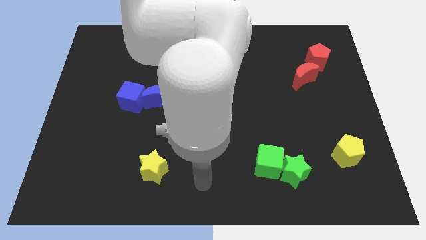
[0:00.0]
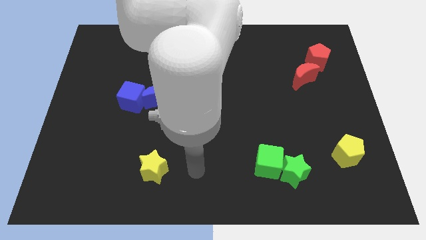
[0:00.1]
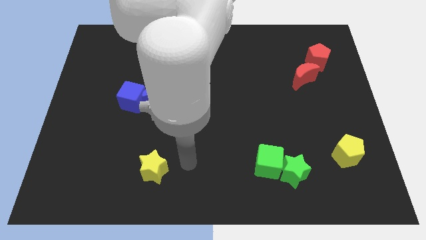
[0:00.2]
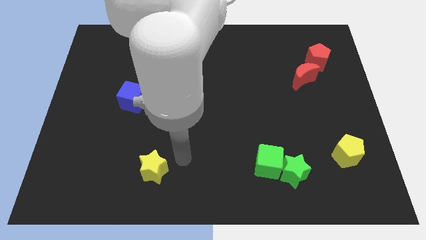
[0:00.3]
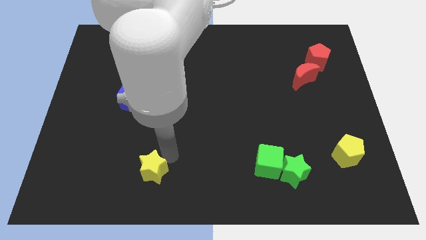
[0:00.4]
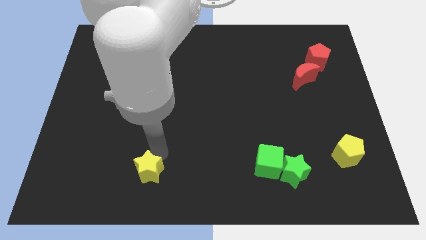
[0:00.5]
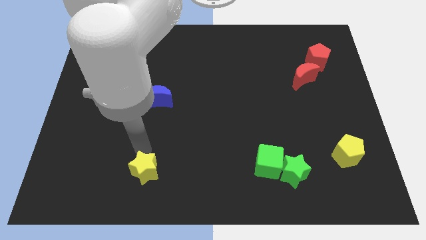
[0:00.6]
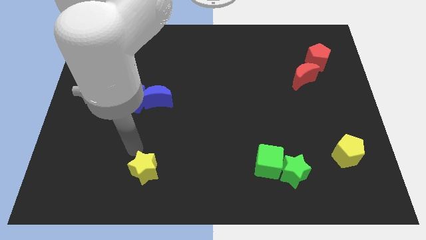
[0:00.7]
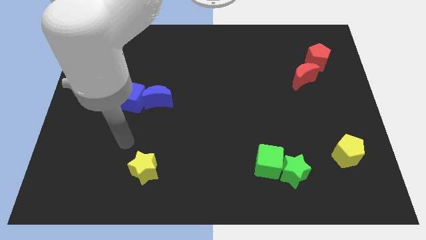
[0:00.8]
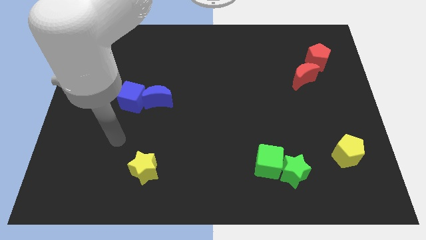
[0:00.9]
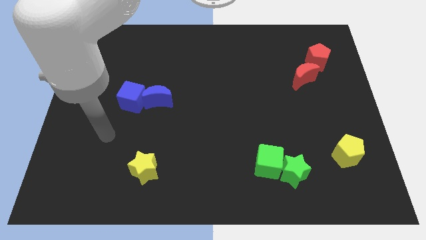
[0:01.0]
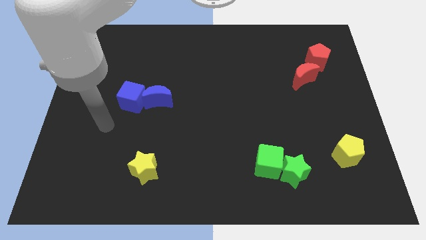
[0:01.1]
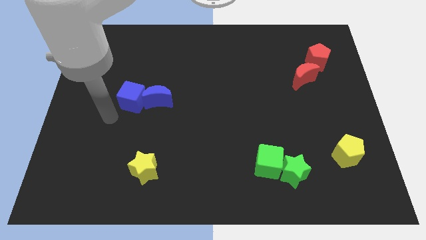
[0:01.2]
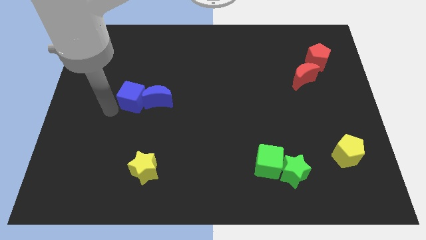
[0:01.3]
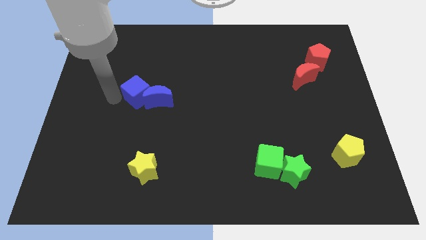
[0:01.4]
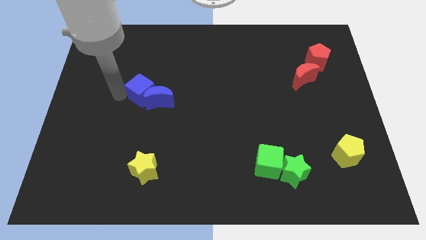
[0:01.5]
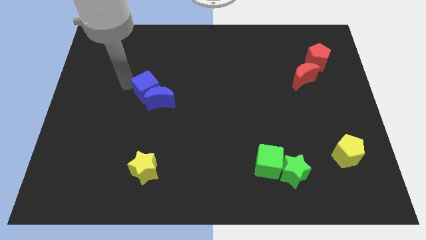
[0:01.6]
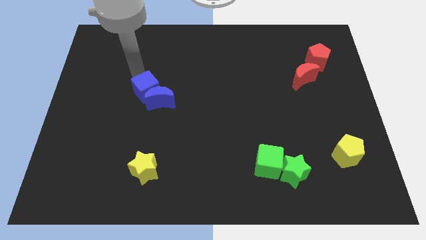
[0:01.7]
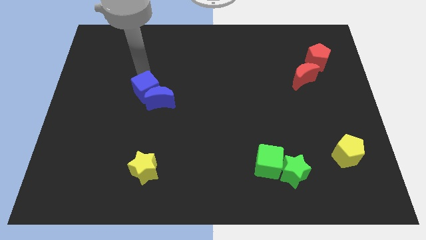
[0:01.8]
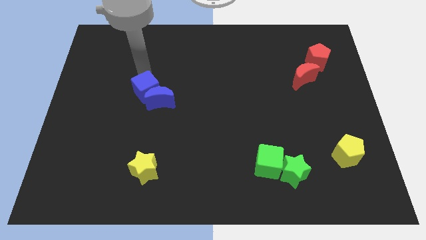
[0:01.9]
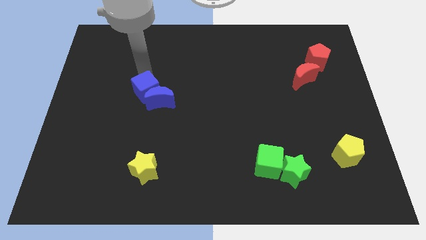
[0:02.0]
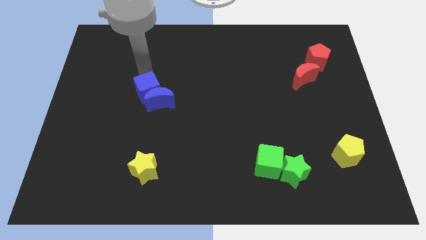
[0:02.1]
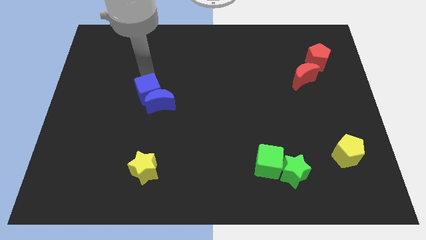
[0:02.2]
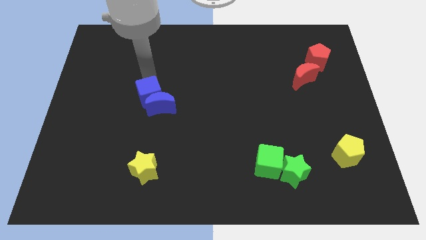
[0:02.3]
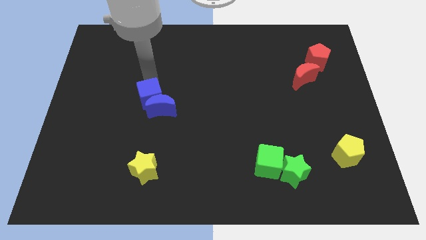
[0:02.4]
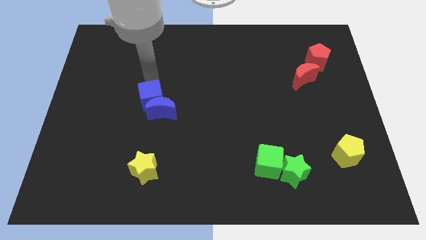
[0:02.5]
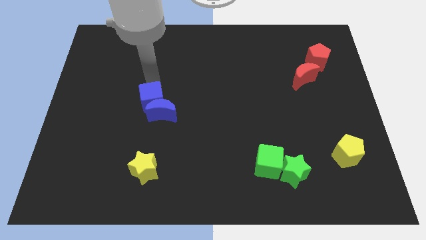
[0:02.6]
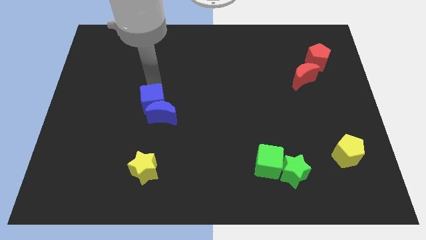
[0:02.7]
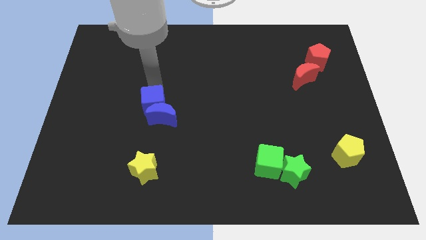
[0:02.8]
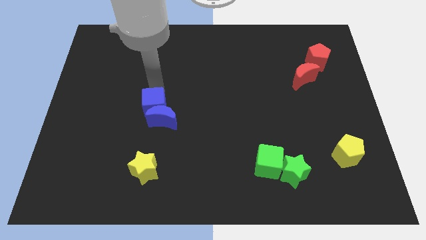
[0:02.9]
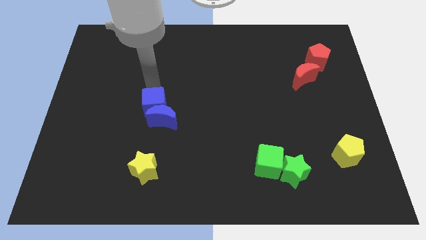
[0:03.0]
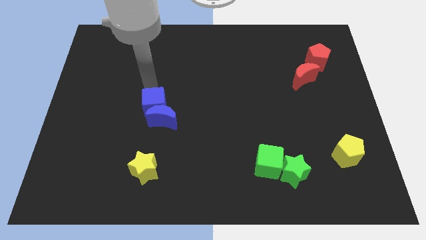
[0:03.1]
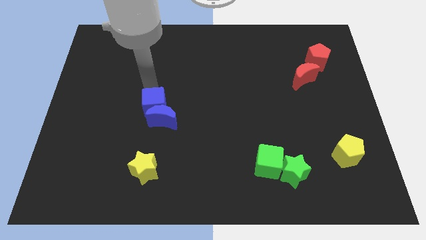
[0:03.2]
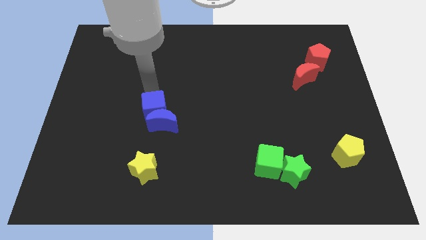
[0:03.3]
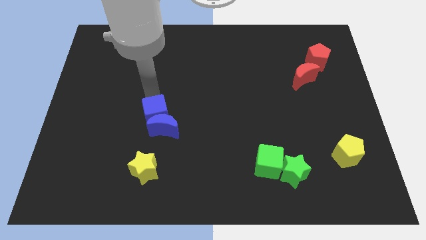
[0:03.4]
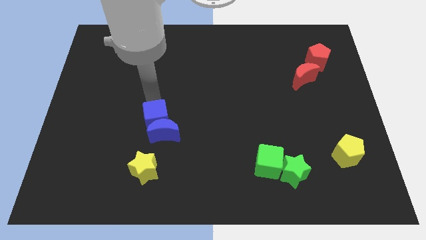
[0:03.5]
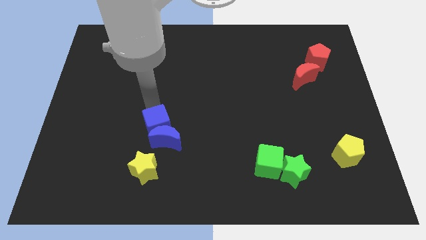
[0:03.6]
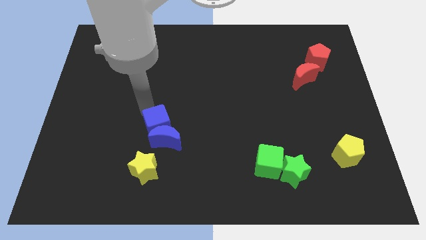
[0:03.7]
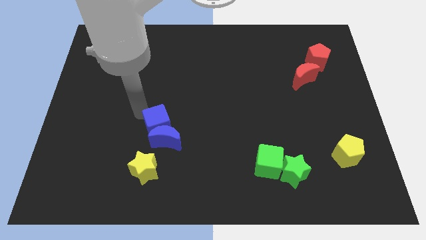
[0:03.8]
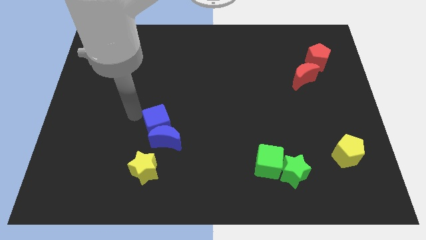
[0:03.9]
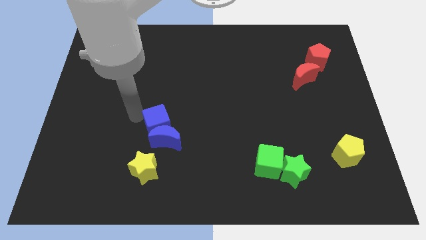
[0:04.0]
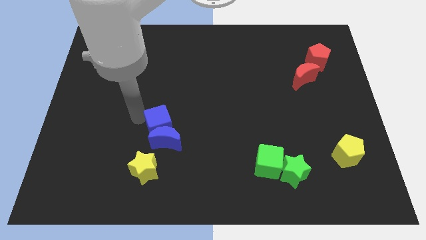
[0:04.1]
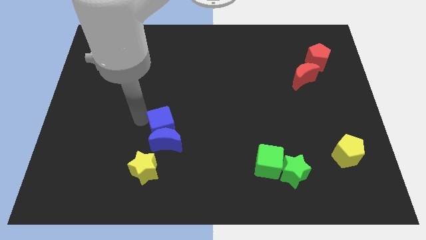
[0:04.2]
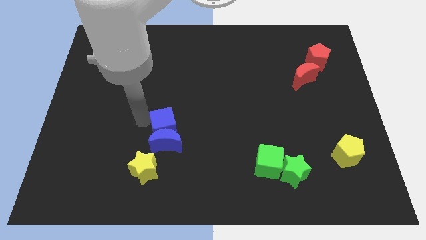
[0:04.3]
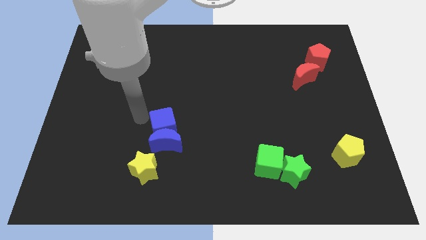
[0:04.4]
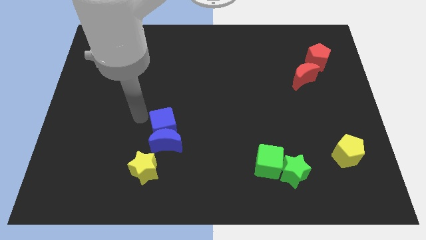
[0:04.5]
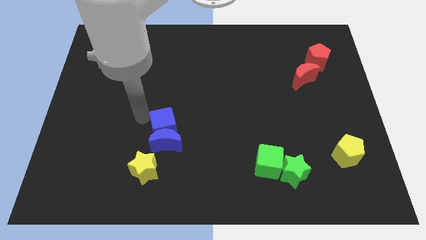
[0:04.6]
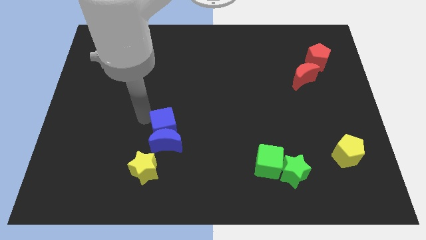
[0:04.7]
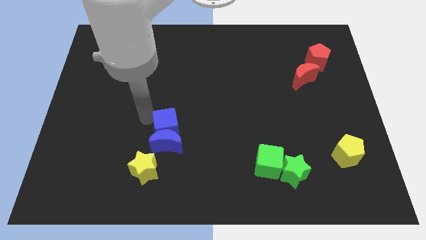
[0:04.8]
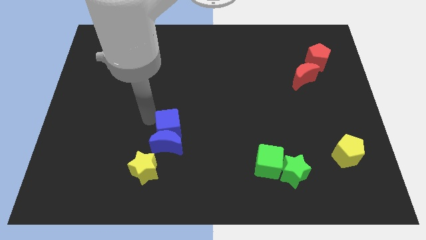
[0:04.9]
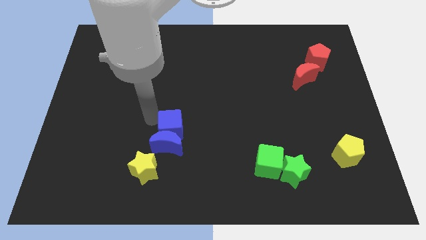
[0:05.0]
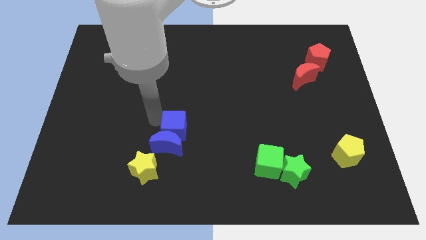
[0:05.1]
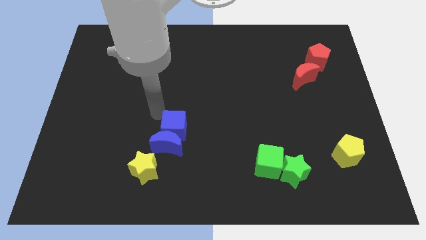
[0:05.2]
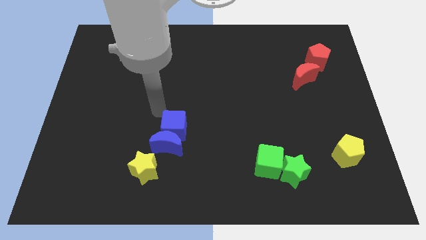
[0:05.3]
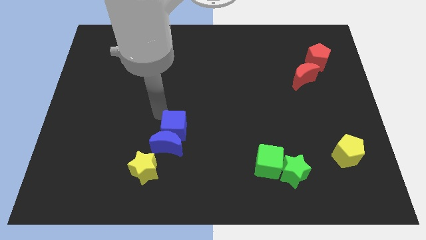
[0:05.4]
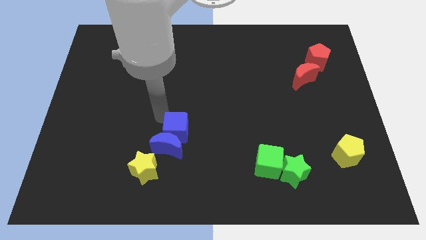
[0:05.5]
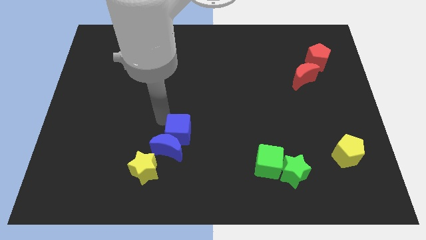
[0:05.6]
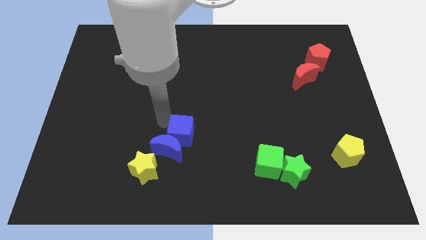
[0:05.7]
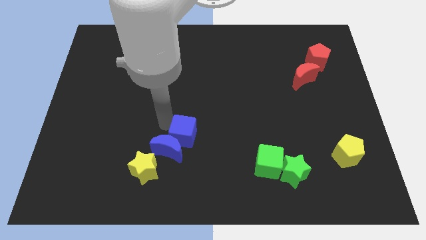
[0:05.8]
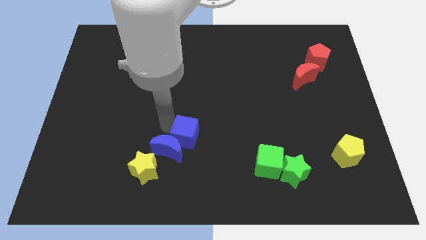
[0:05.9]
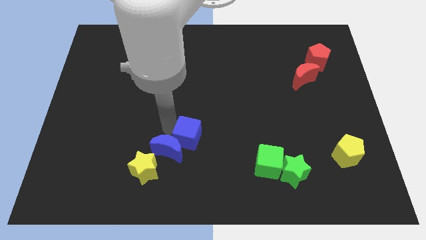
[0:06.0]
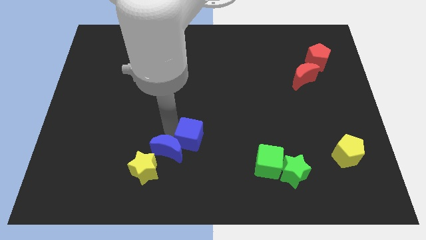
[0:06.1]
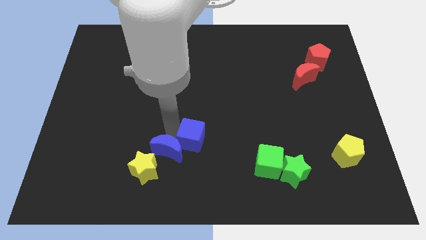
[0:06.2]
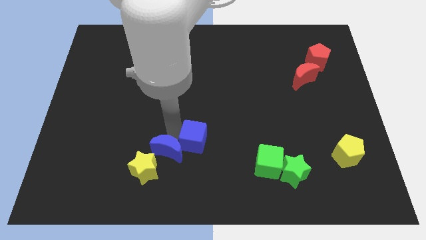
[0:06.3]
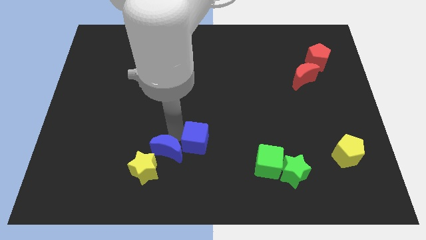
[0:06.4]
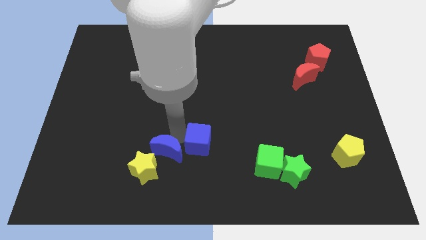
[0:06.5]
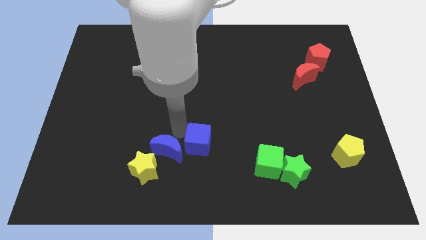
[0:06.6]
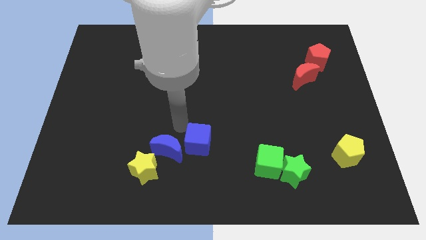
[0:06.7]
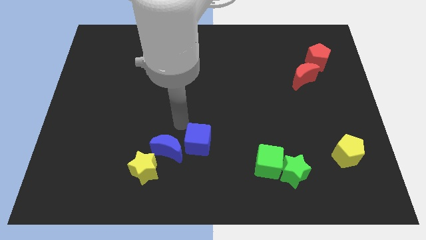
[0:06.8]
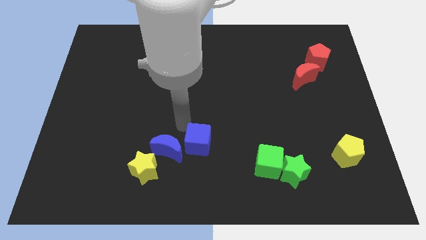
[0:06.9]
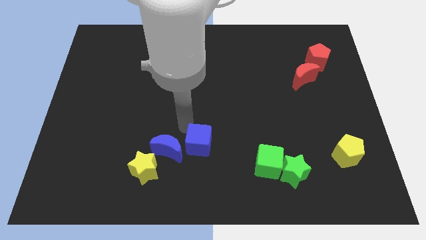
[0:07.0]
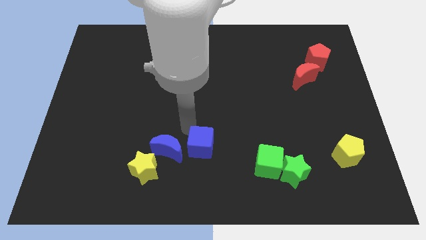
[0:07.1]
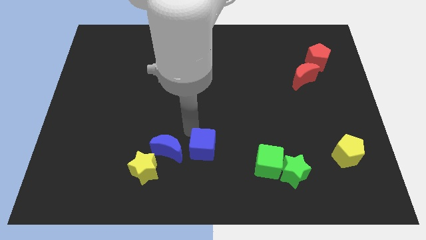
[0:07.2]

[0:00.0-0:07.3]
slide the blue cube left of the green cube
